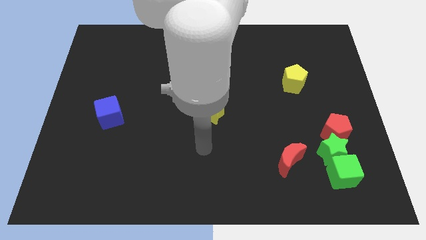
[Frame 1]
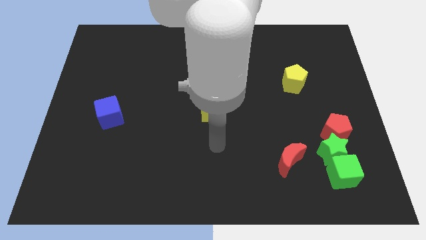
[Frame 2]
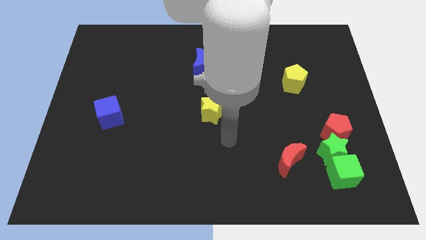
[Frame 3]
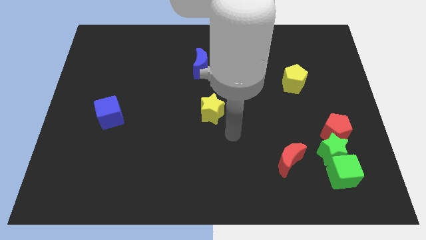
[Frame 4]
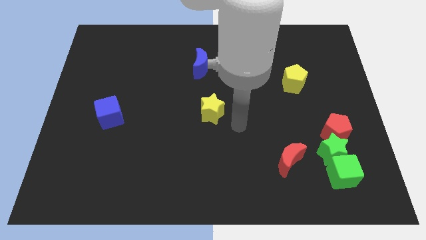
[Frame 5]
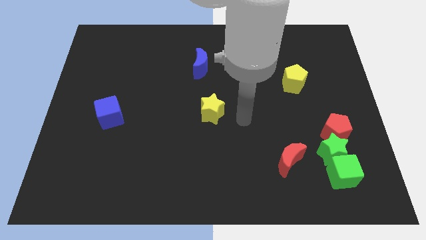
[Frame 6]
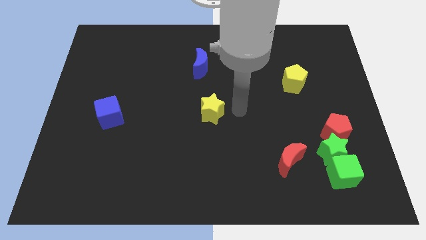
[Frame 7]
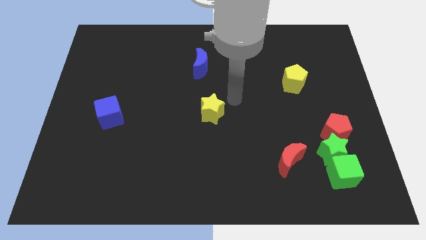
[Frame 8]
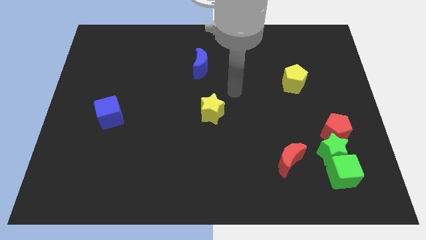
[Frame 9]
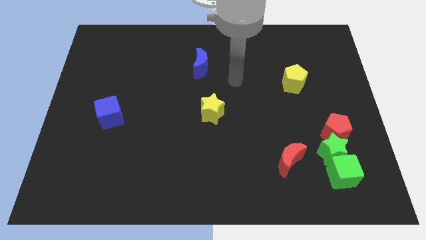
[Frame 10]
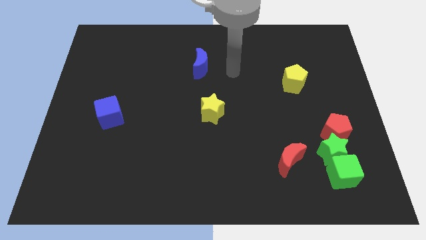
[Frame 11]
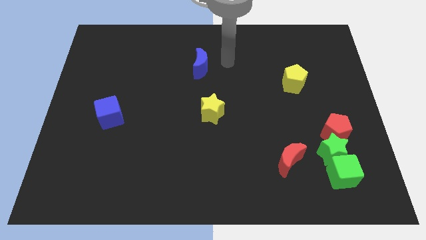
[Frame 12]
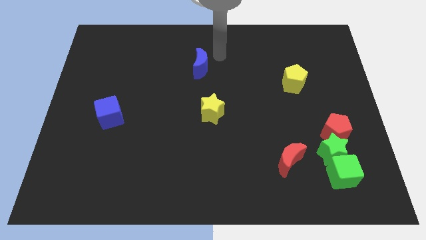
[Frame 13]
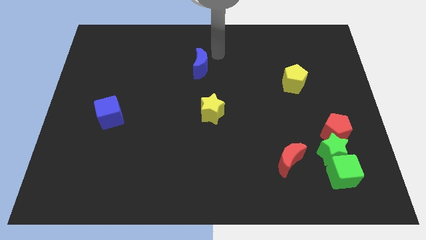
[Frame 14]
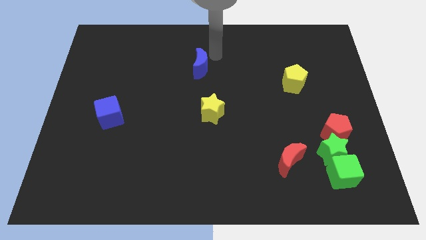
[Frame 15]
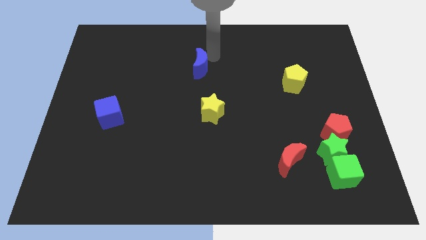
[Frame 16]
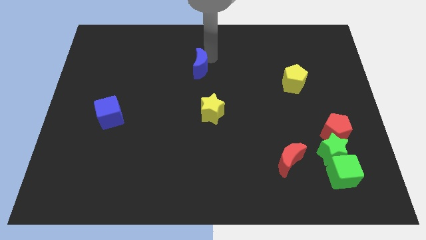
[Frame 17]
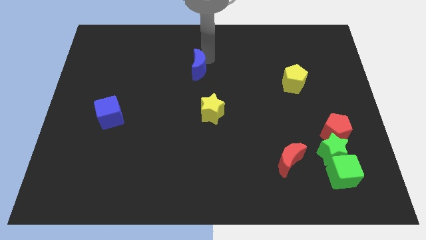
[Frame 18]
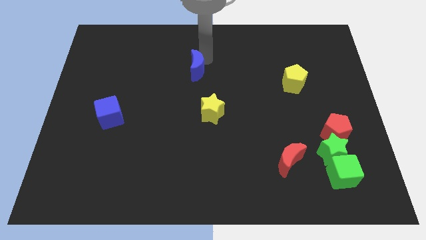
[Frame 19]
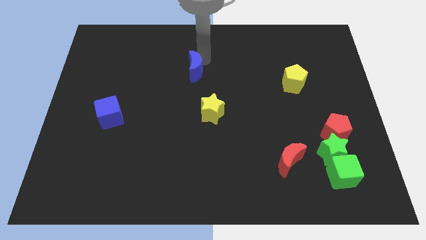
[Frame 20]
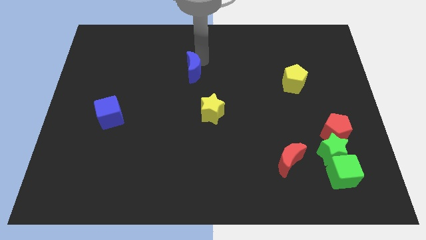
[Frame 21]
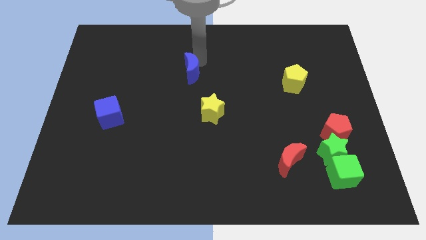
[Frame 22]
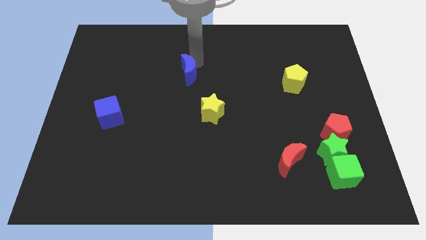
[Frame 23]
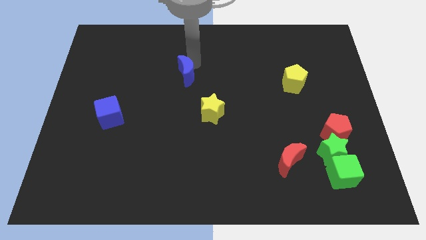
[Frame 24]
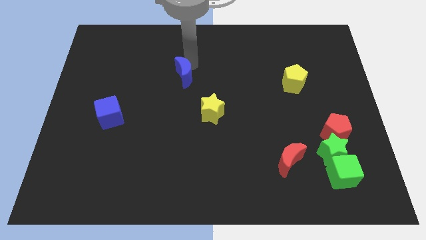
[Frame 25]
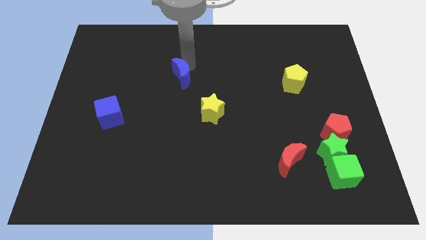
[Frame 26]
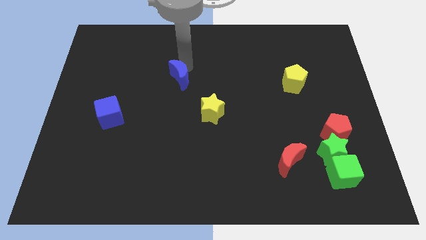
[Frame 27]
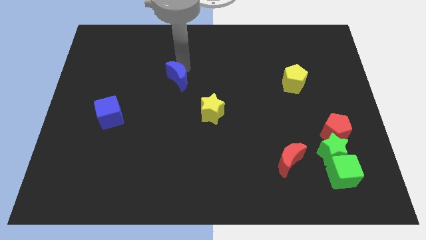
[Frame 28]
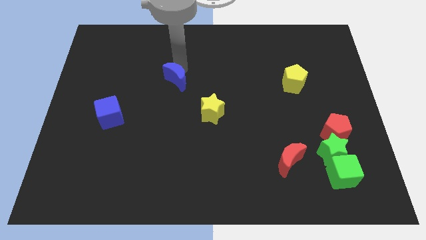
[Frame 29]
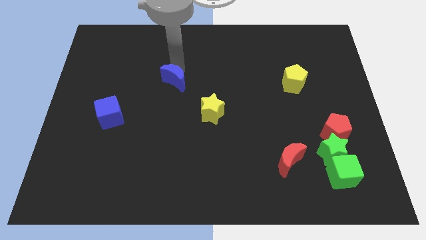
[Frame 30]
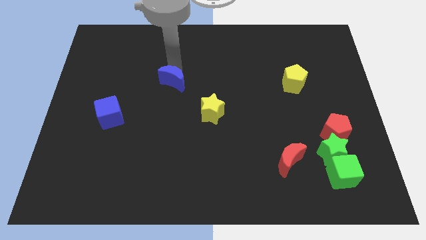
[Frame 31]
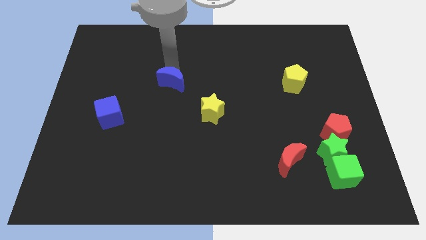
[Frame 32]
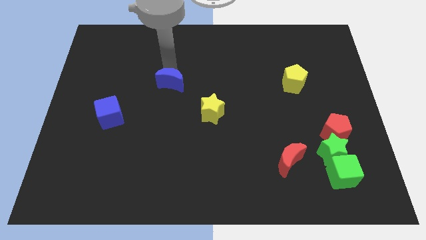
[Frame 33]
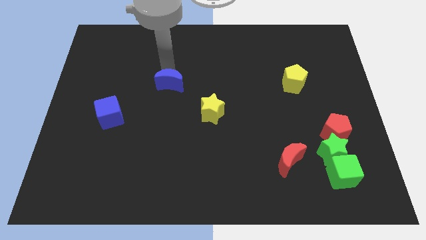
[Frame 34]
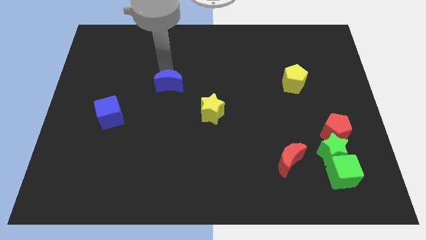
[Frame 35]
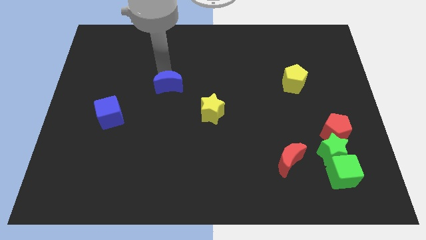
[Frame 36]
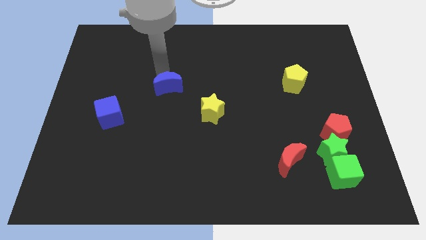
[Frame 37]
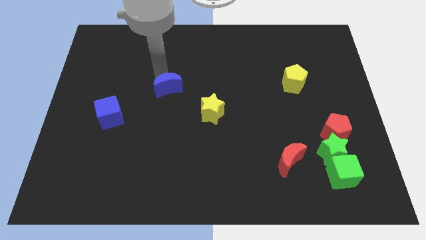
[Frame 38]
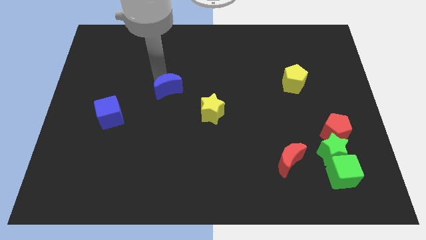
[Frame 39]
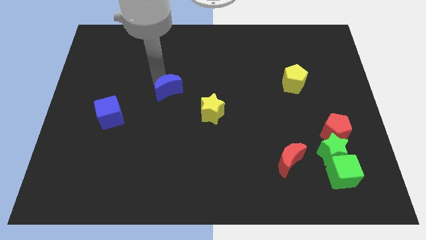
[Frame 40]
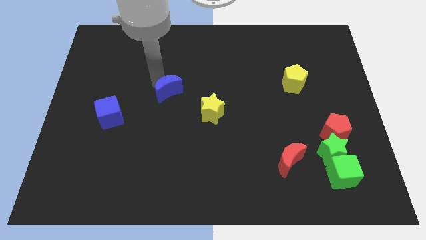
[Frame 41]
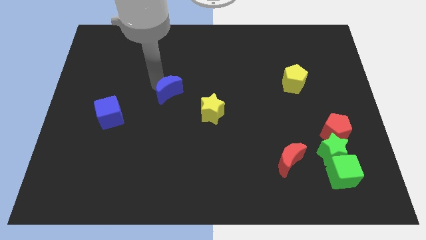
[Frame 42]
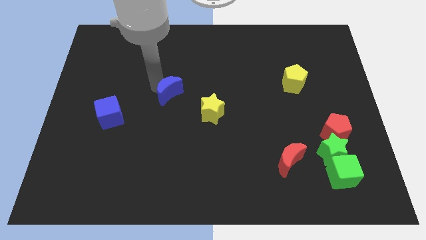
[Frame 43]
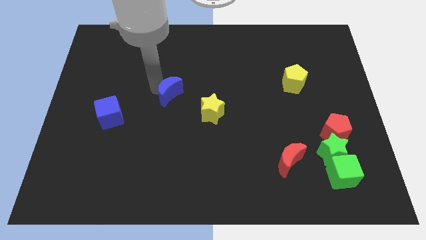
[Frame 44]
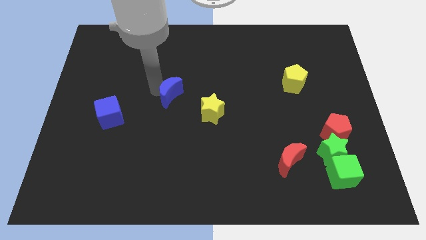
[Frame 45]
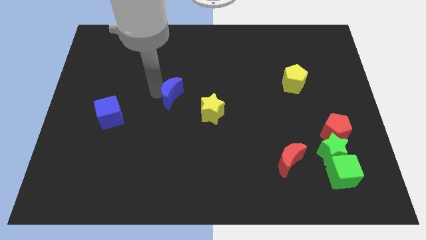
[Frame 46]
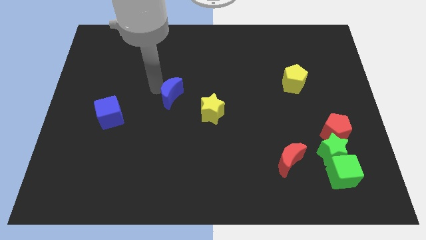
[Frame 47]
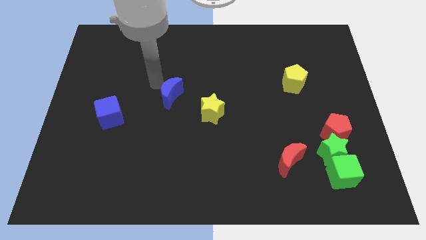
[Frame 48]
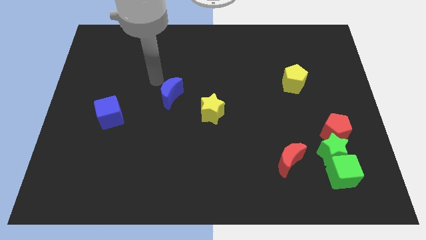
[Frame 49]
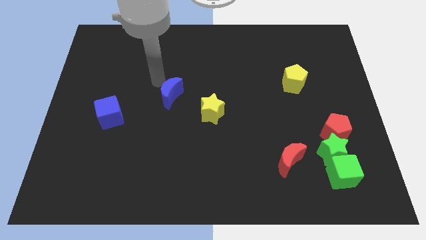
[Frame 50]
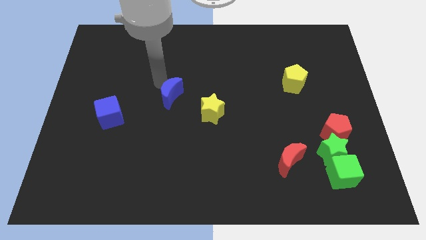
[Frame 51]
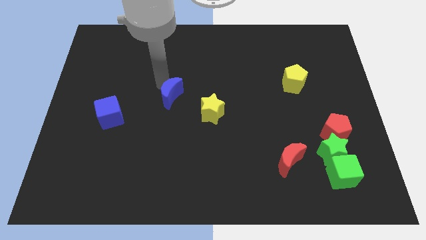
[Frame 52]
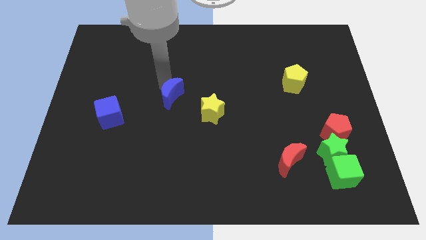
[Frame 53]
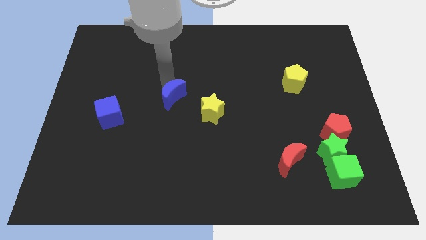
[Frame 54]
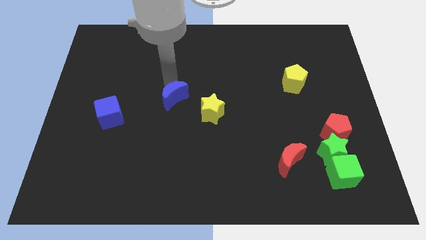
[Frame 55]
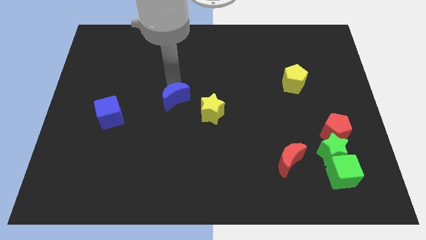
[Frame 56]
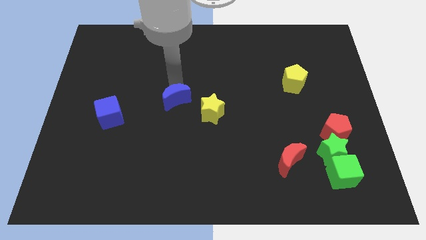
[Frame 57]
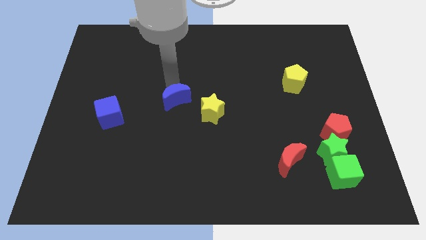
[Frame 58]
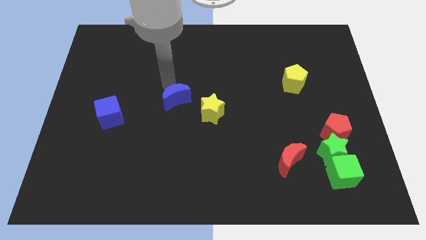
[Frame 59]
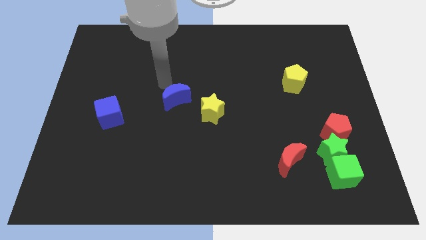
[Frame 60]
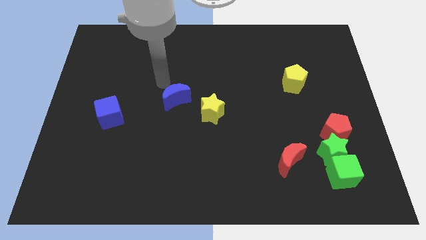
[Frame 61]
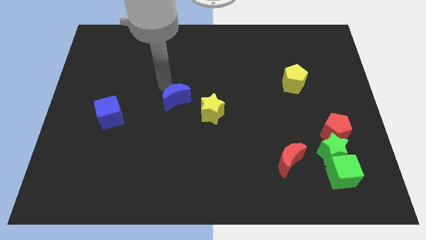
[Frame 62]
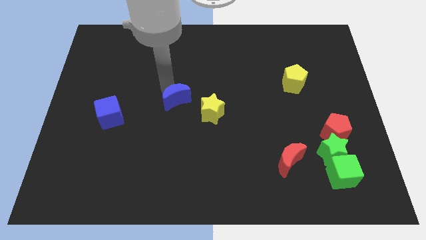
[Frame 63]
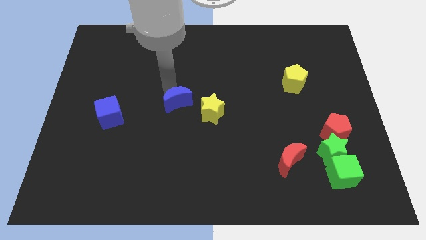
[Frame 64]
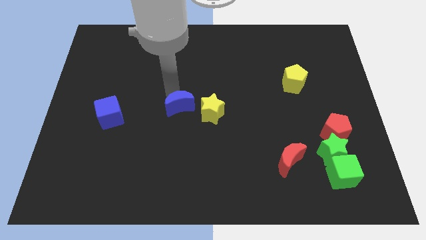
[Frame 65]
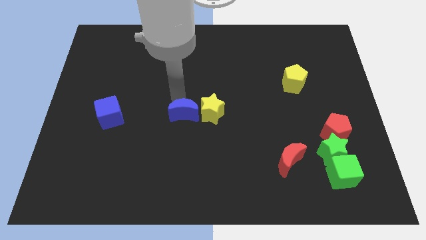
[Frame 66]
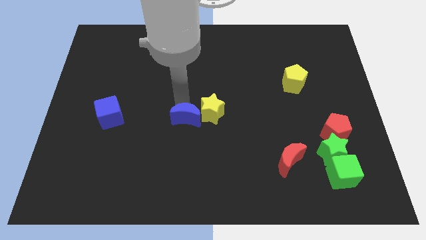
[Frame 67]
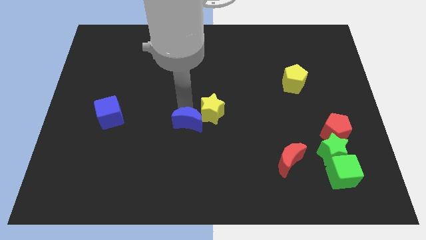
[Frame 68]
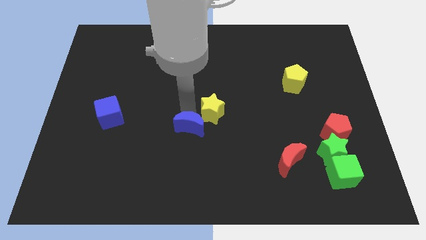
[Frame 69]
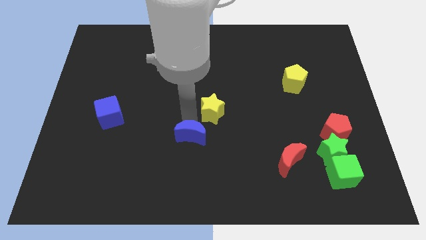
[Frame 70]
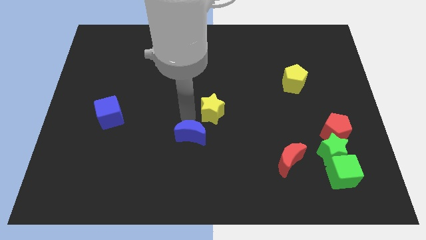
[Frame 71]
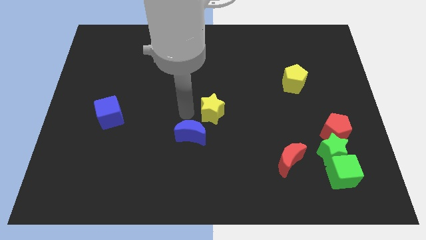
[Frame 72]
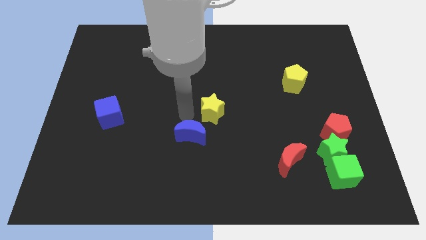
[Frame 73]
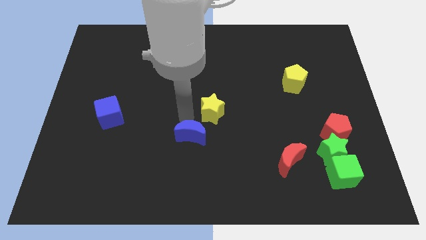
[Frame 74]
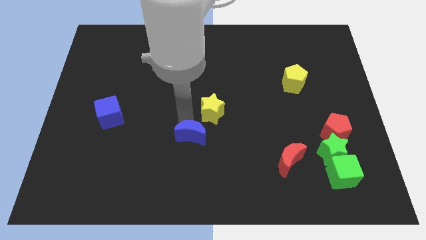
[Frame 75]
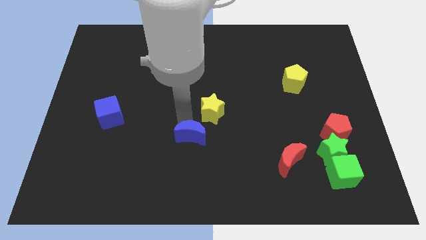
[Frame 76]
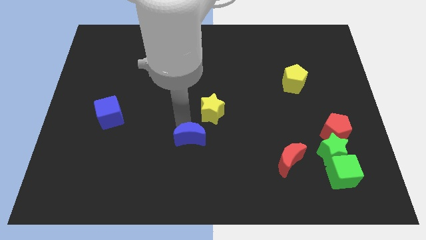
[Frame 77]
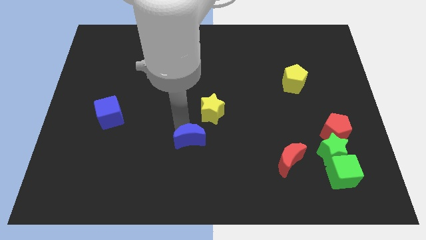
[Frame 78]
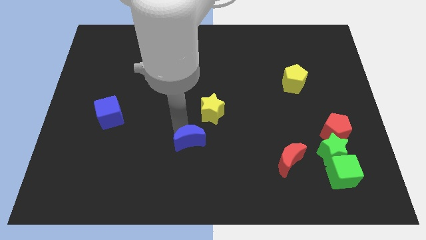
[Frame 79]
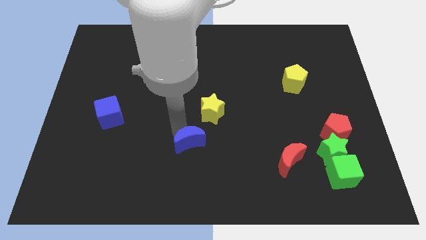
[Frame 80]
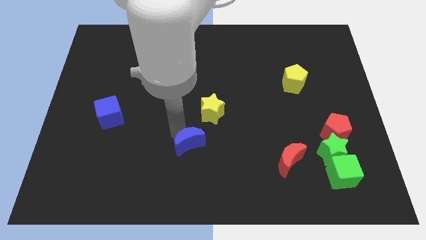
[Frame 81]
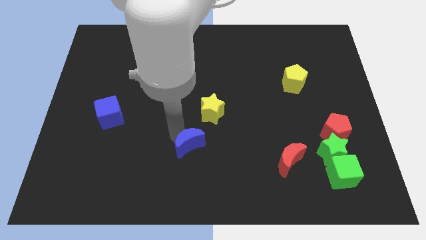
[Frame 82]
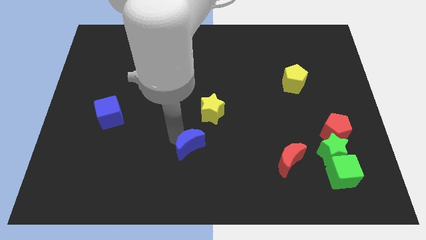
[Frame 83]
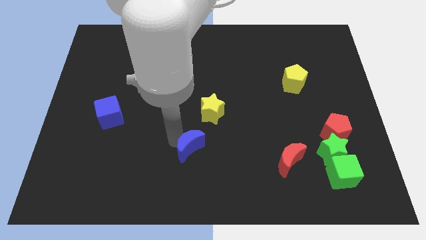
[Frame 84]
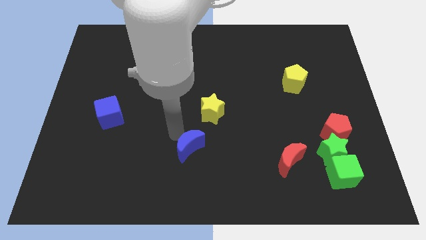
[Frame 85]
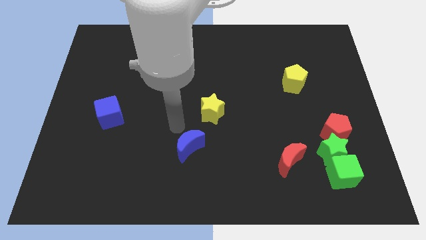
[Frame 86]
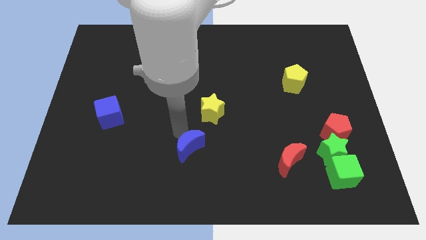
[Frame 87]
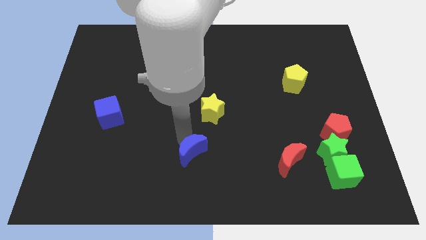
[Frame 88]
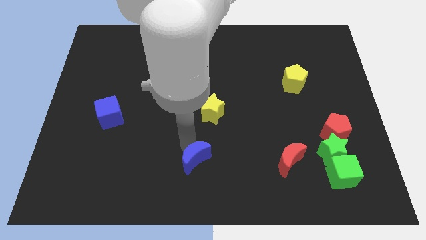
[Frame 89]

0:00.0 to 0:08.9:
put the blue moon to the bottom side
